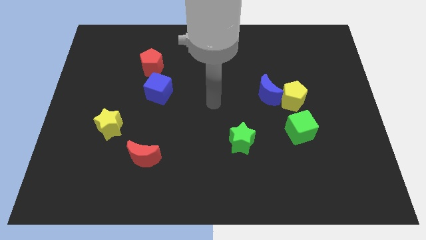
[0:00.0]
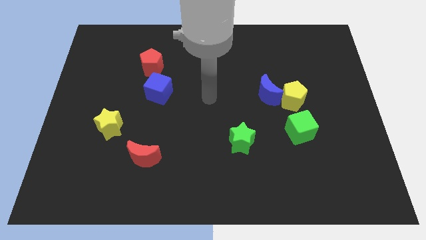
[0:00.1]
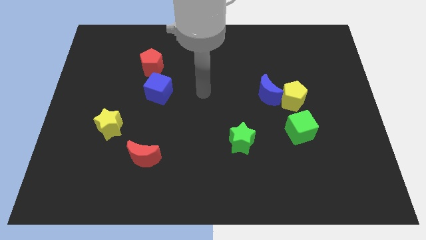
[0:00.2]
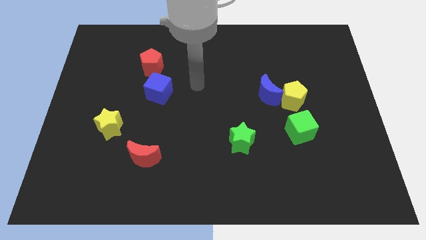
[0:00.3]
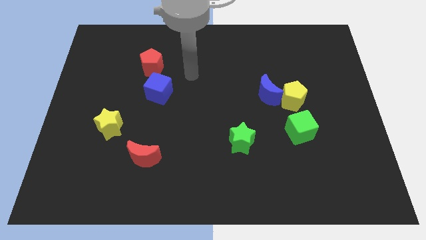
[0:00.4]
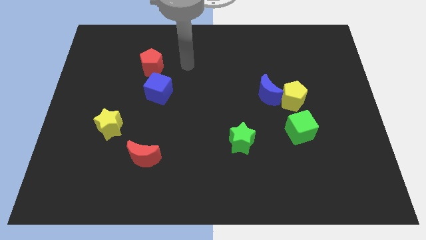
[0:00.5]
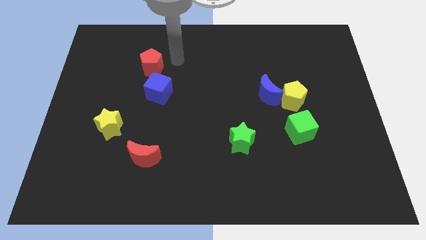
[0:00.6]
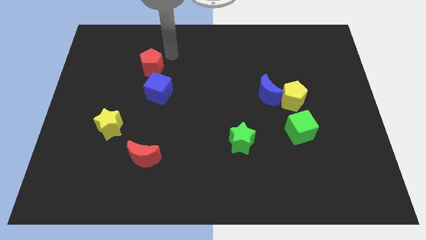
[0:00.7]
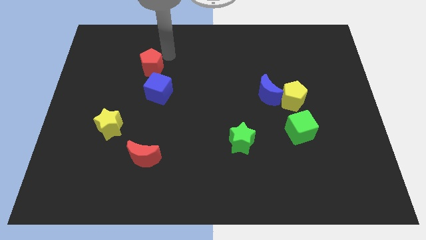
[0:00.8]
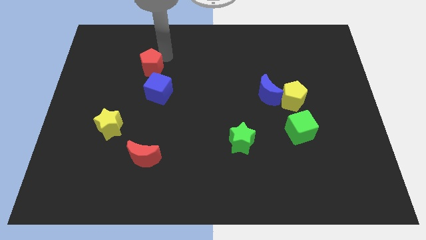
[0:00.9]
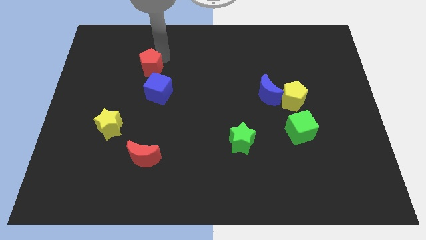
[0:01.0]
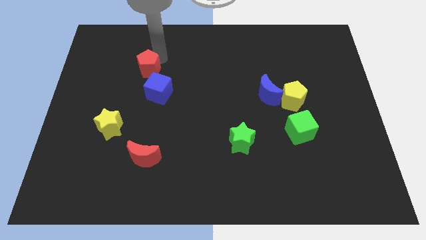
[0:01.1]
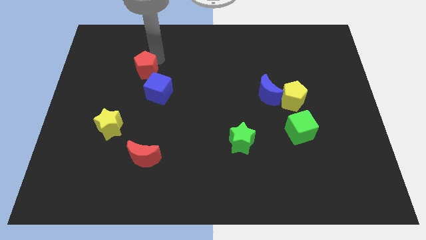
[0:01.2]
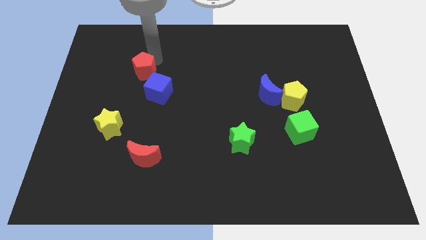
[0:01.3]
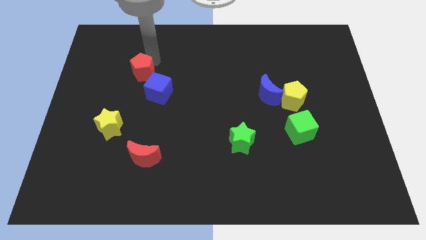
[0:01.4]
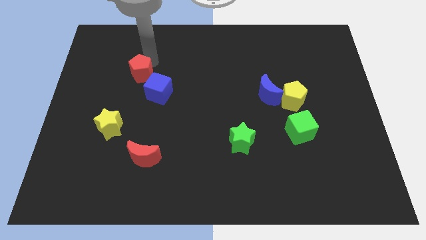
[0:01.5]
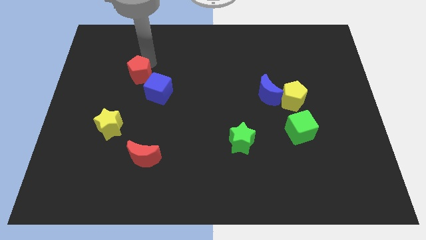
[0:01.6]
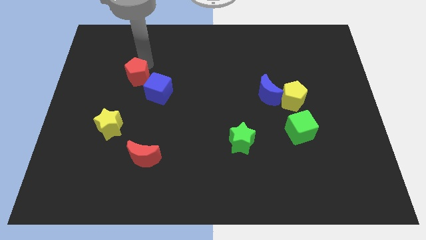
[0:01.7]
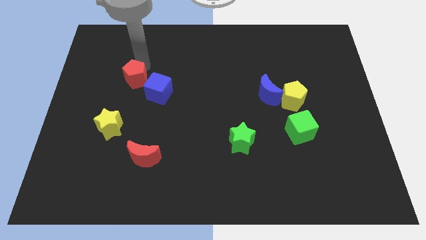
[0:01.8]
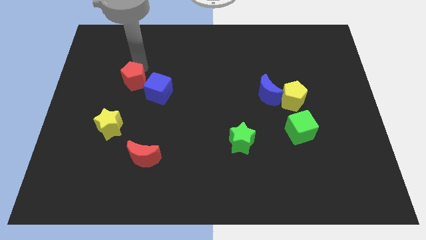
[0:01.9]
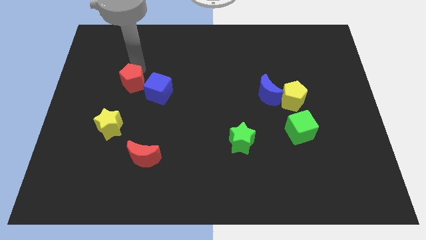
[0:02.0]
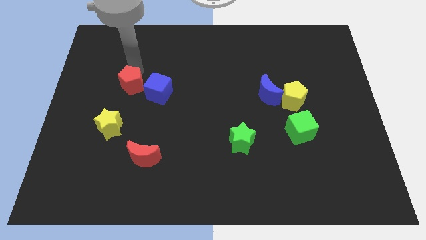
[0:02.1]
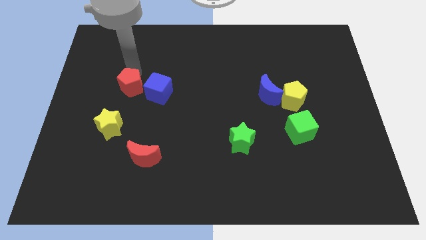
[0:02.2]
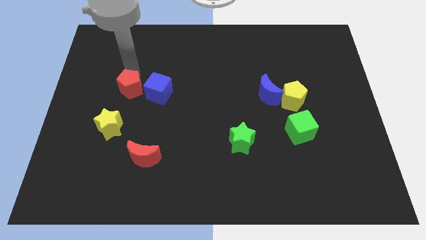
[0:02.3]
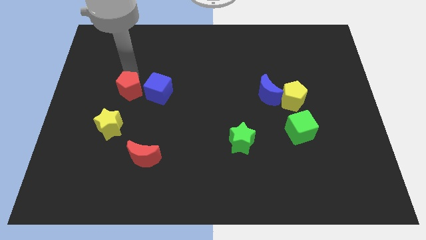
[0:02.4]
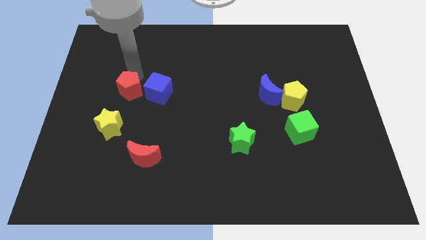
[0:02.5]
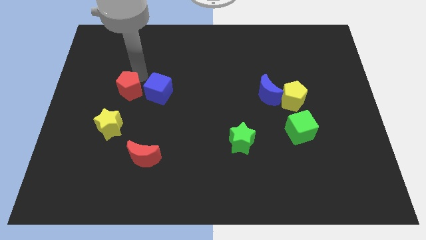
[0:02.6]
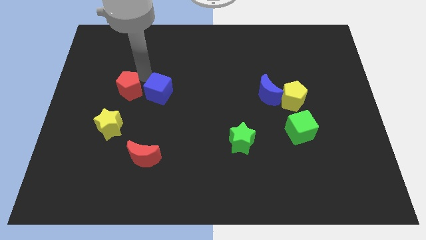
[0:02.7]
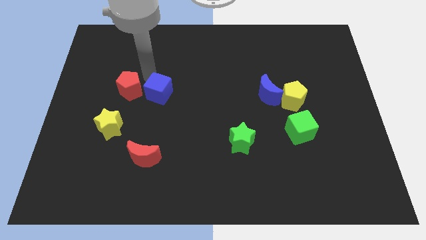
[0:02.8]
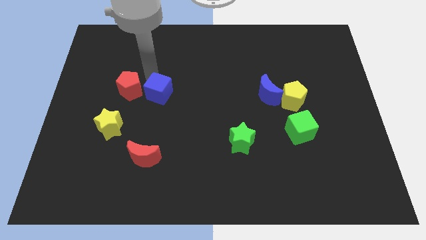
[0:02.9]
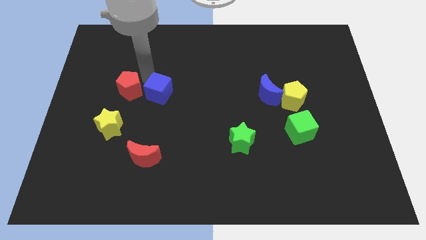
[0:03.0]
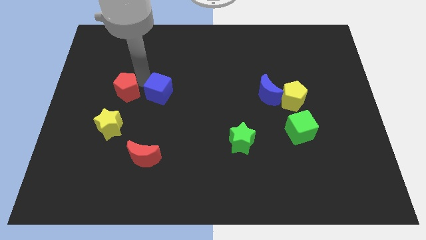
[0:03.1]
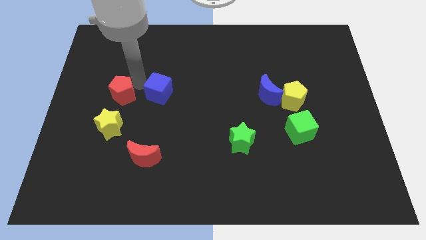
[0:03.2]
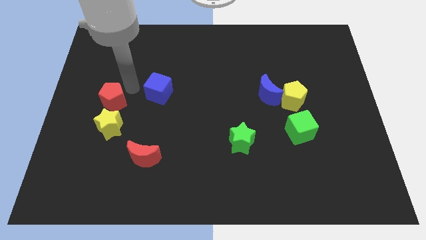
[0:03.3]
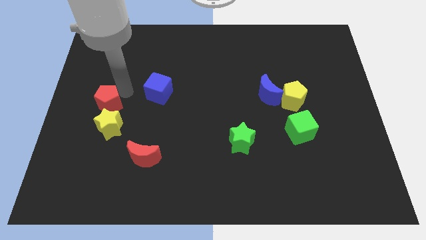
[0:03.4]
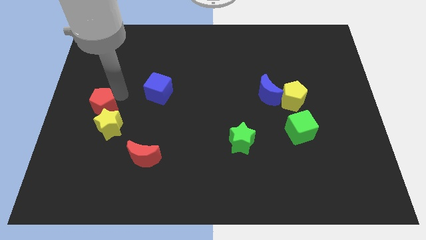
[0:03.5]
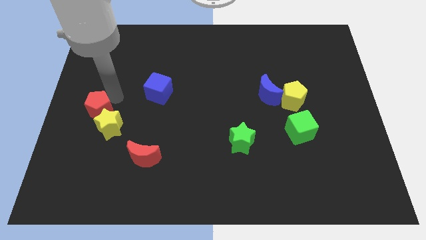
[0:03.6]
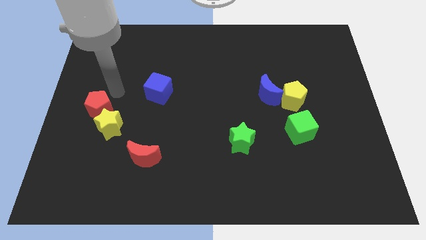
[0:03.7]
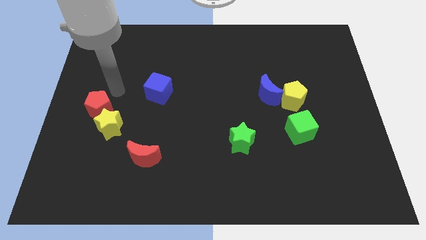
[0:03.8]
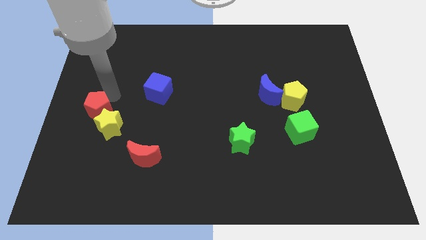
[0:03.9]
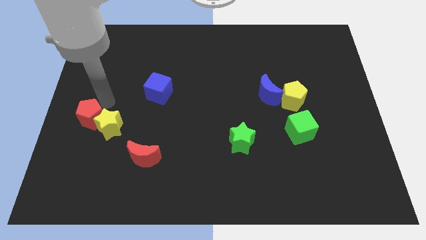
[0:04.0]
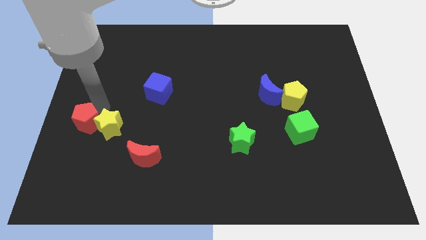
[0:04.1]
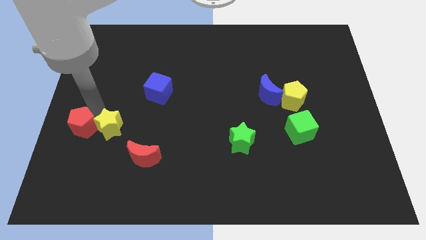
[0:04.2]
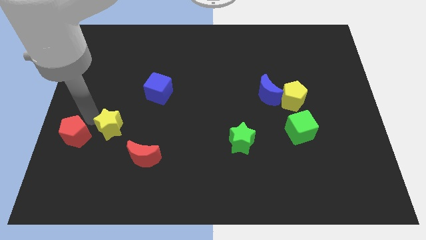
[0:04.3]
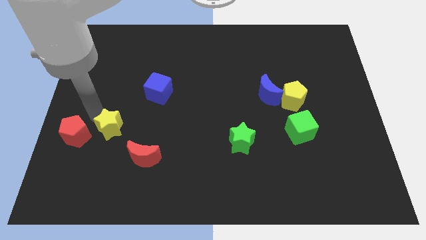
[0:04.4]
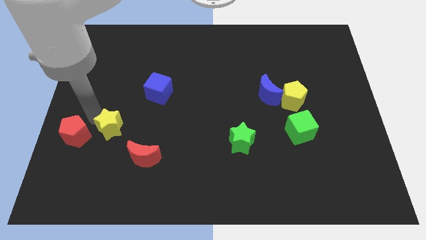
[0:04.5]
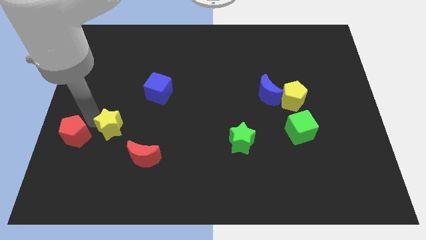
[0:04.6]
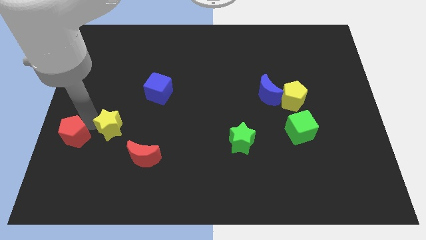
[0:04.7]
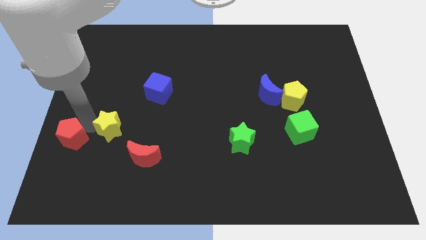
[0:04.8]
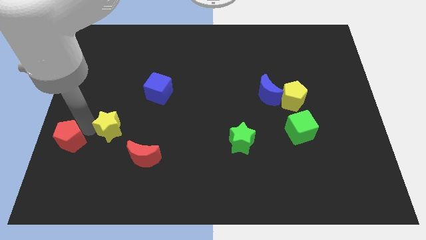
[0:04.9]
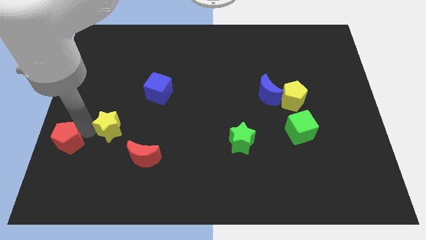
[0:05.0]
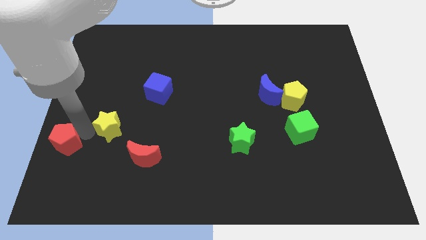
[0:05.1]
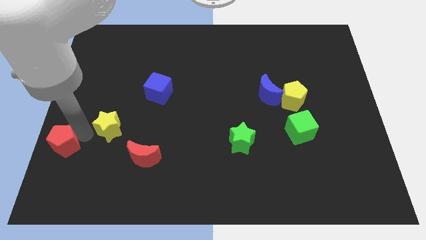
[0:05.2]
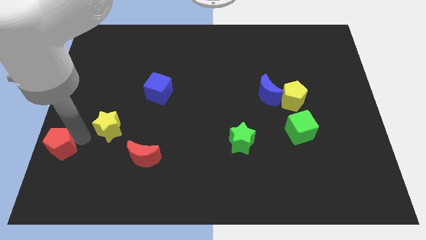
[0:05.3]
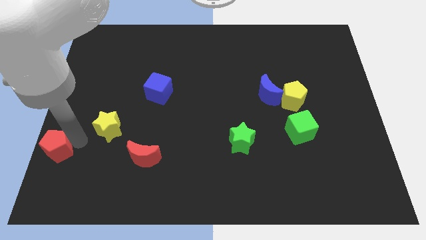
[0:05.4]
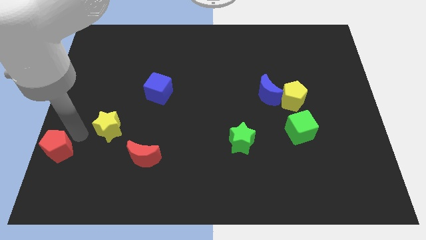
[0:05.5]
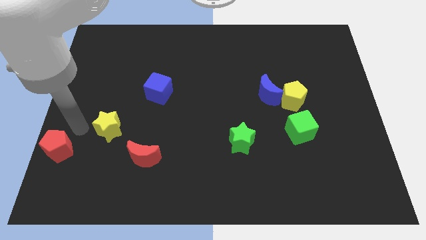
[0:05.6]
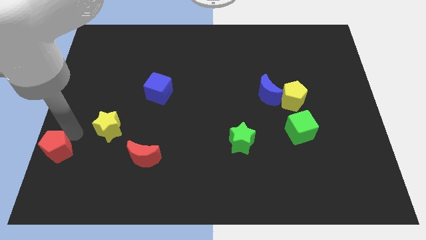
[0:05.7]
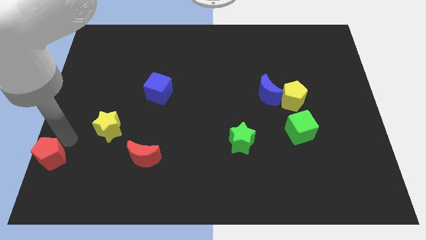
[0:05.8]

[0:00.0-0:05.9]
push the red pentagon to the lower left corner

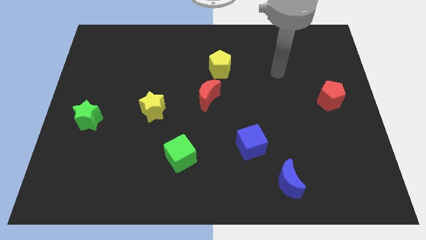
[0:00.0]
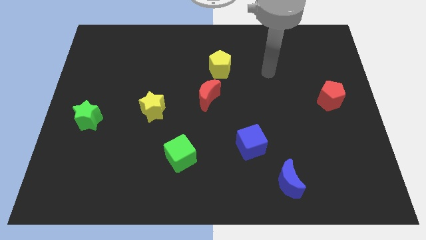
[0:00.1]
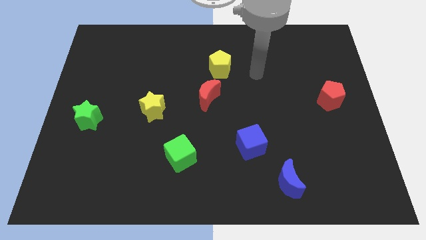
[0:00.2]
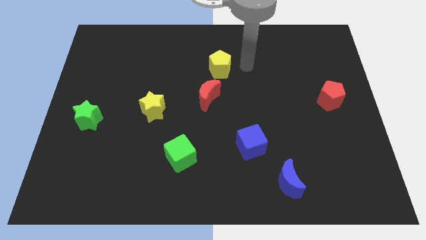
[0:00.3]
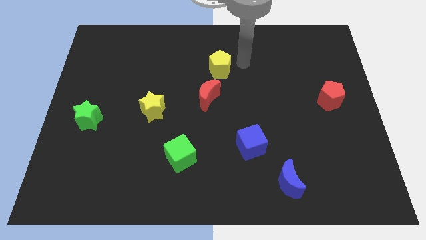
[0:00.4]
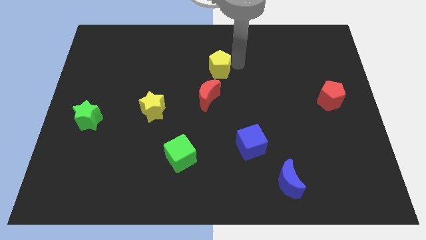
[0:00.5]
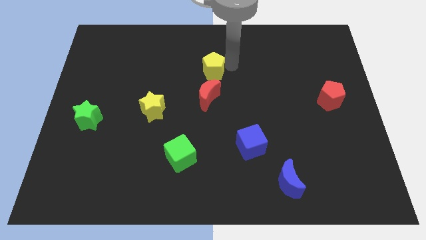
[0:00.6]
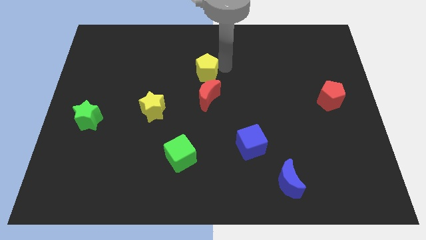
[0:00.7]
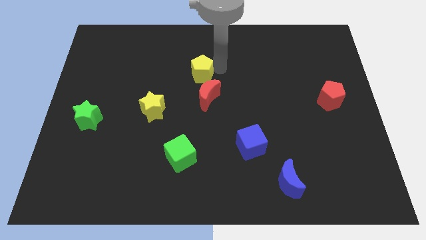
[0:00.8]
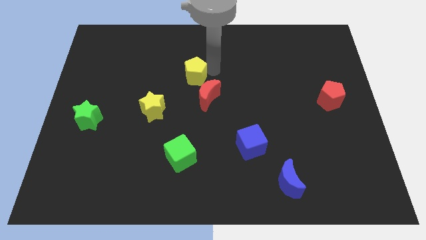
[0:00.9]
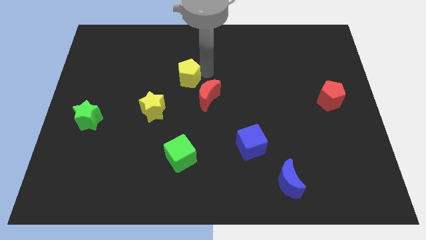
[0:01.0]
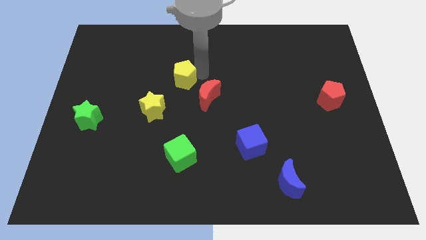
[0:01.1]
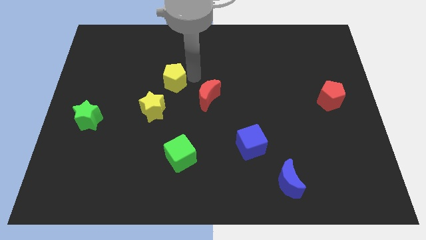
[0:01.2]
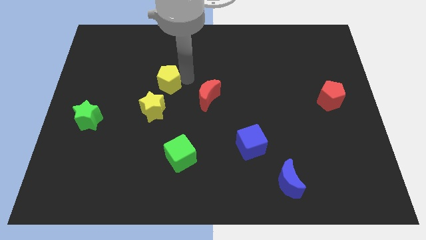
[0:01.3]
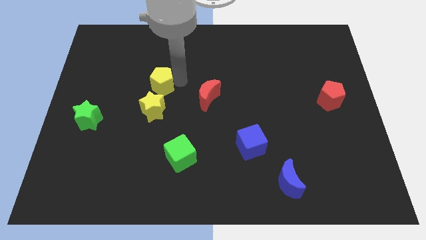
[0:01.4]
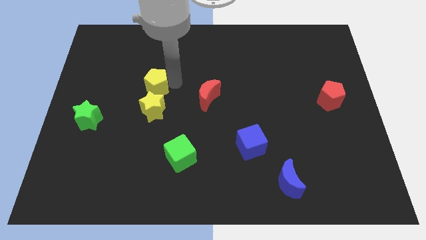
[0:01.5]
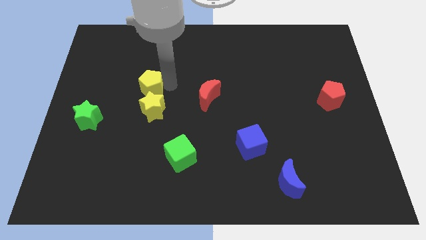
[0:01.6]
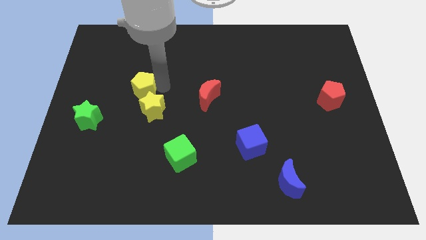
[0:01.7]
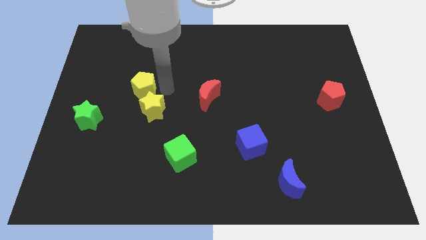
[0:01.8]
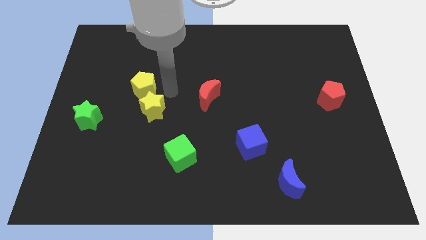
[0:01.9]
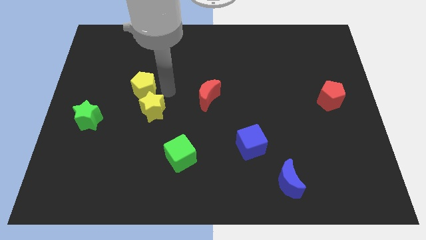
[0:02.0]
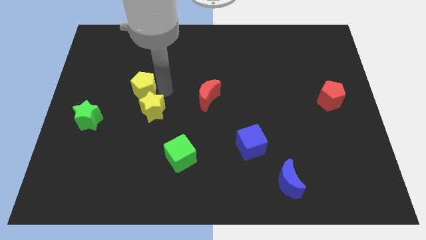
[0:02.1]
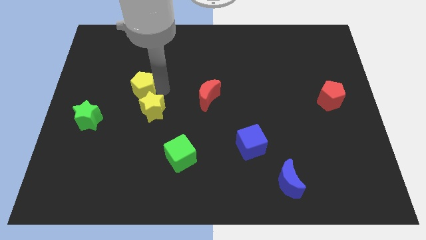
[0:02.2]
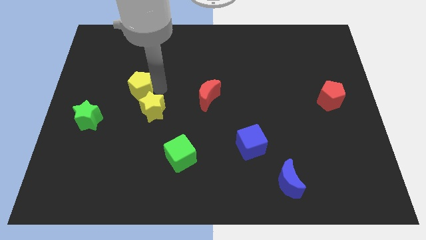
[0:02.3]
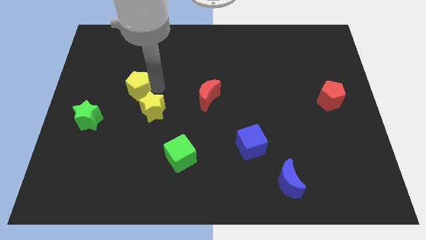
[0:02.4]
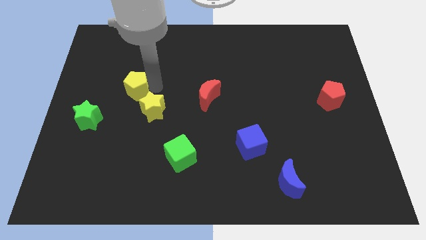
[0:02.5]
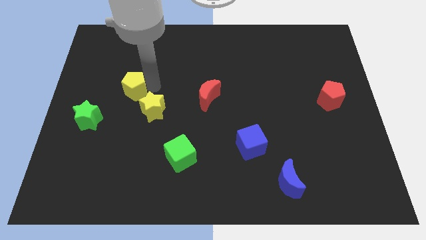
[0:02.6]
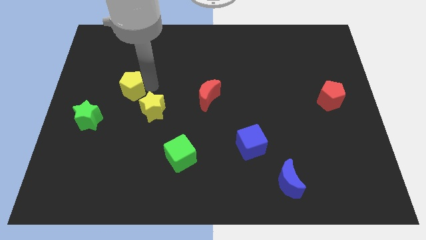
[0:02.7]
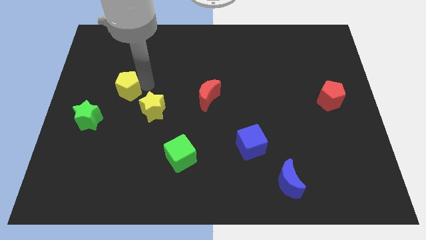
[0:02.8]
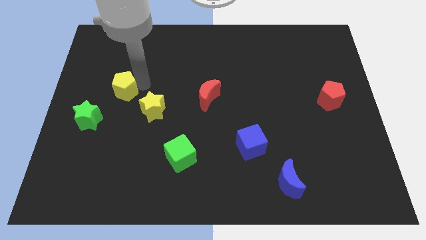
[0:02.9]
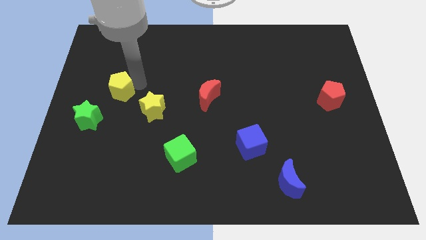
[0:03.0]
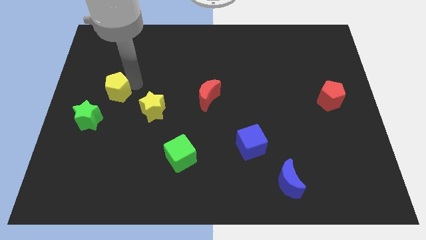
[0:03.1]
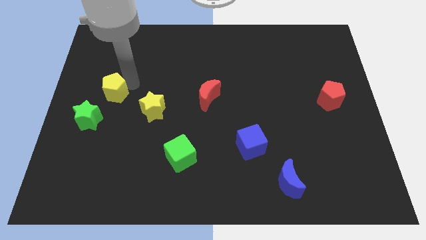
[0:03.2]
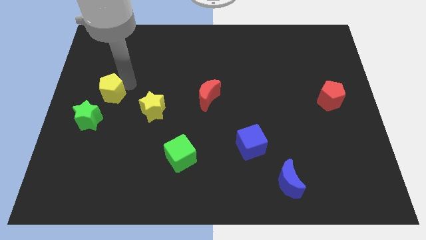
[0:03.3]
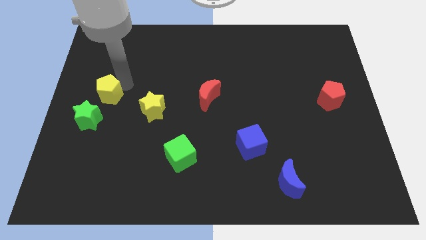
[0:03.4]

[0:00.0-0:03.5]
push the yellow pentagon to the center left
